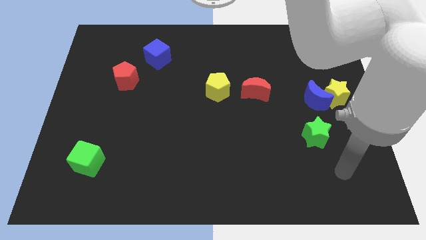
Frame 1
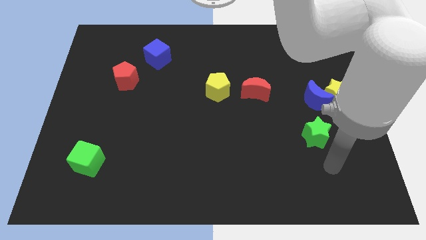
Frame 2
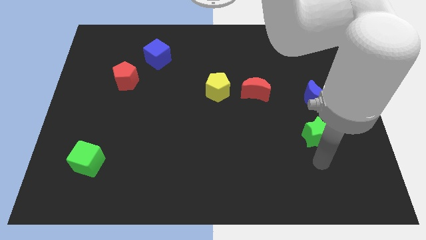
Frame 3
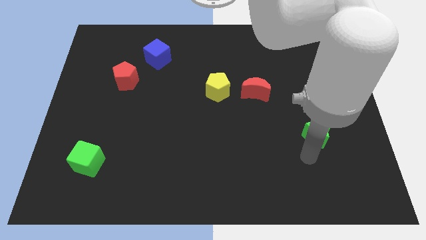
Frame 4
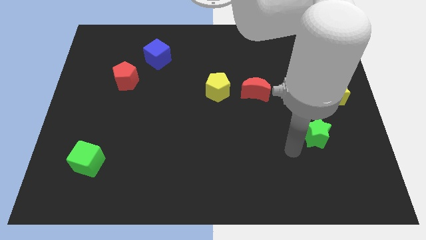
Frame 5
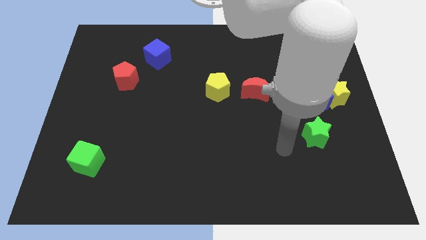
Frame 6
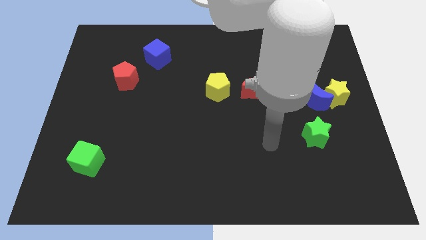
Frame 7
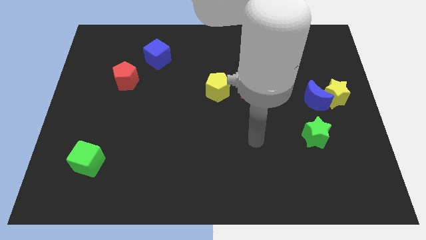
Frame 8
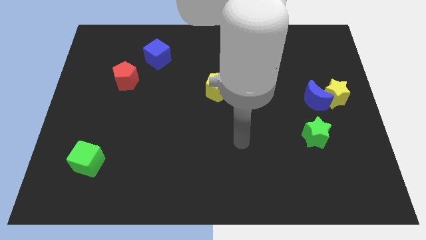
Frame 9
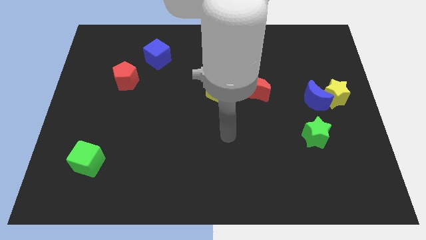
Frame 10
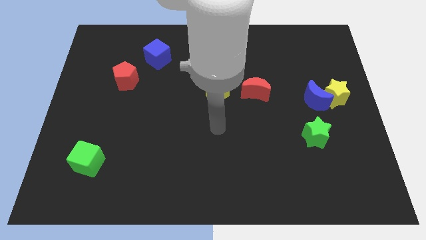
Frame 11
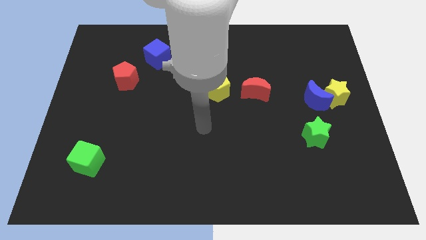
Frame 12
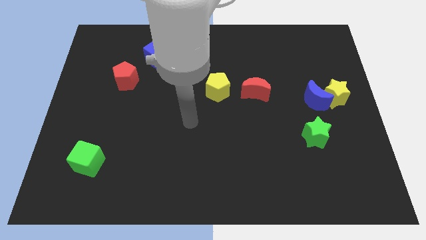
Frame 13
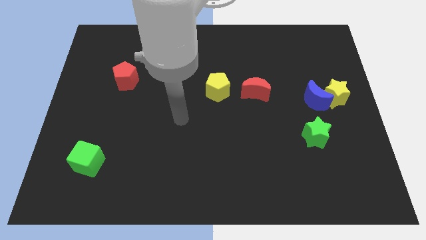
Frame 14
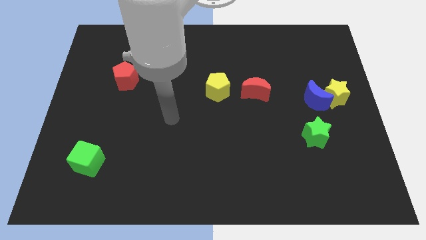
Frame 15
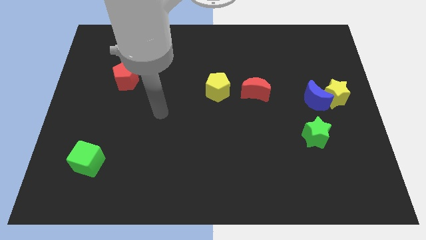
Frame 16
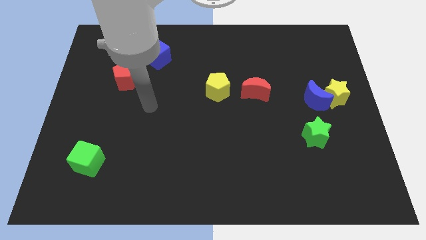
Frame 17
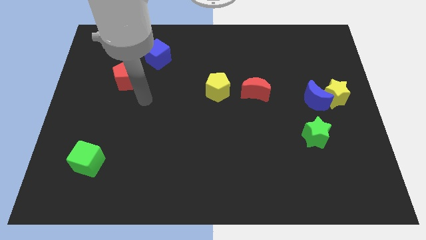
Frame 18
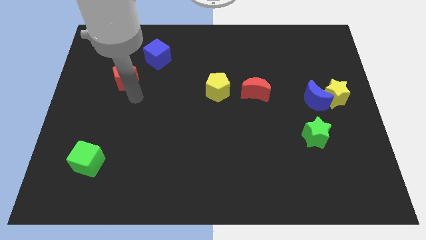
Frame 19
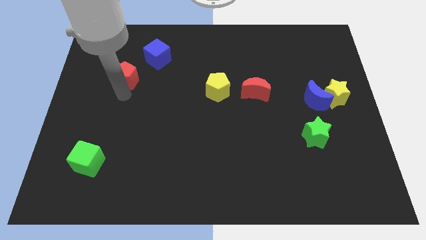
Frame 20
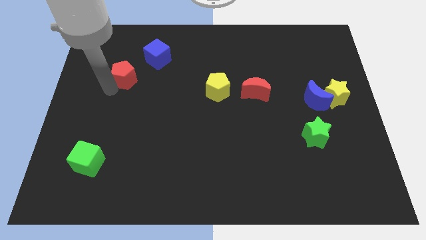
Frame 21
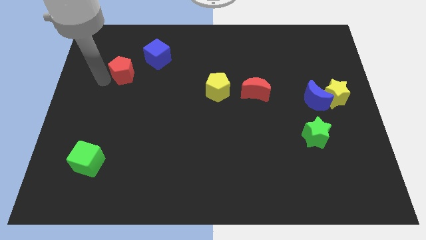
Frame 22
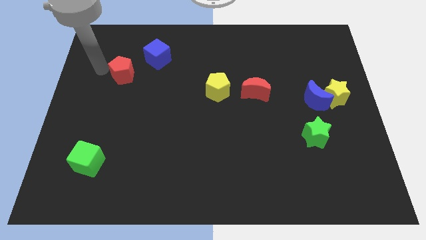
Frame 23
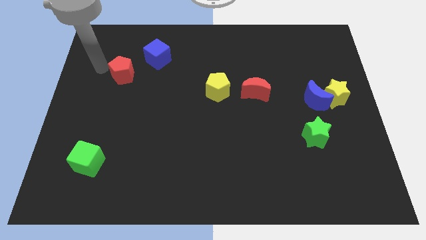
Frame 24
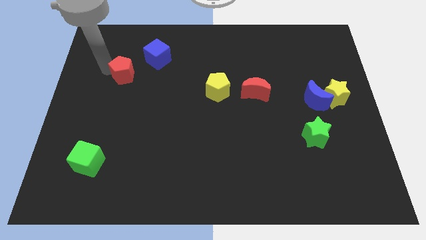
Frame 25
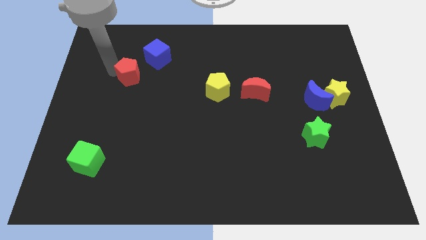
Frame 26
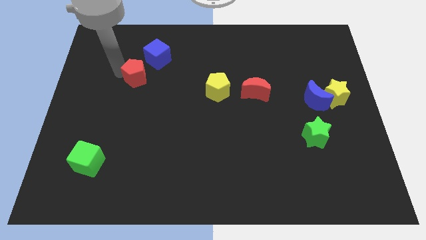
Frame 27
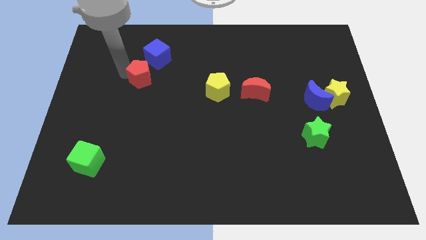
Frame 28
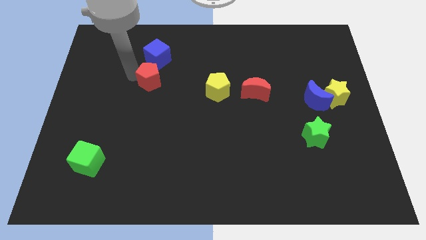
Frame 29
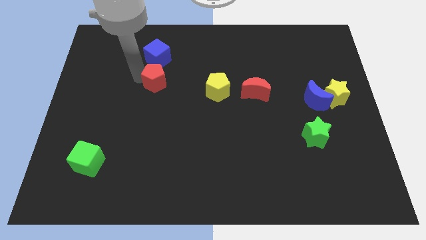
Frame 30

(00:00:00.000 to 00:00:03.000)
push the red pentagon to the right somewhat

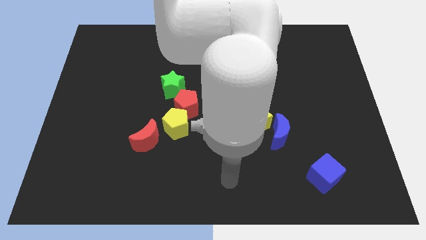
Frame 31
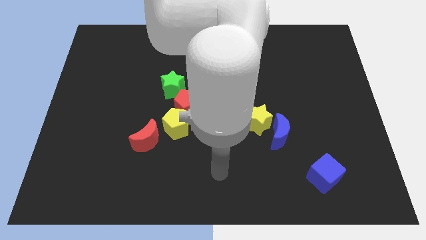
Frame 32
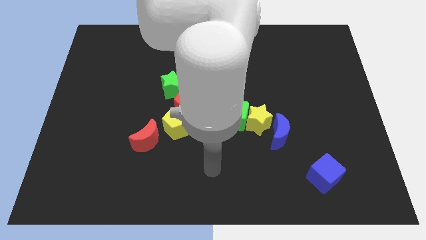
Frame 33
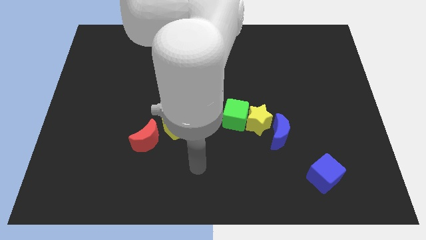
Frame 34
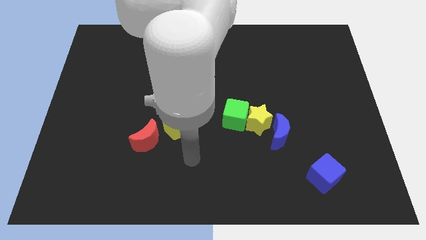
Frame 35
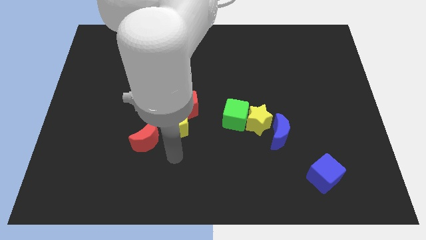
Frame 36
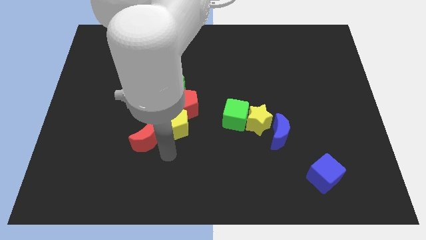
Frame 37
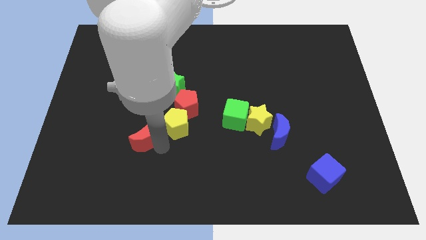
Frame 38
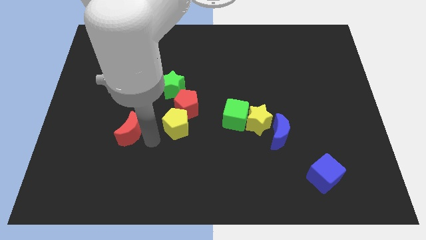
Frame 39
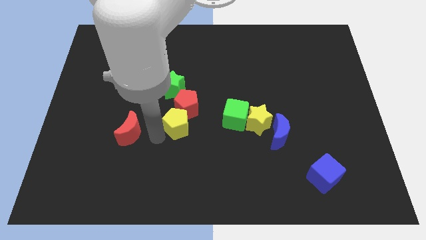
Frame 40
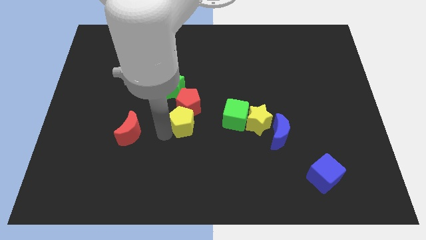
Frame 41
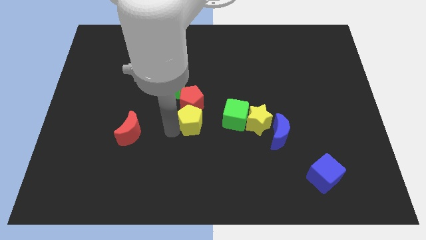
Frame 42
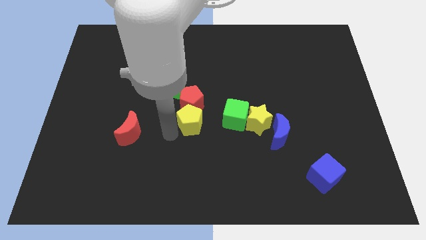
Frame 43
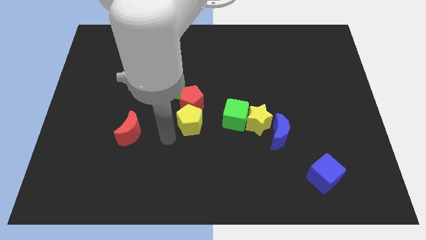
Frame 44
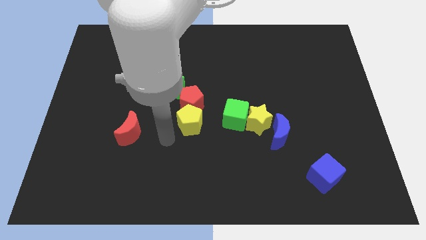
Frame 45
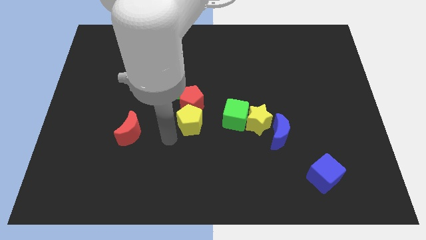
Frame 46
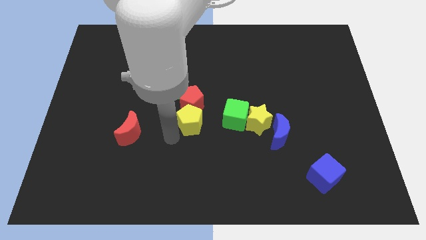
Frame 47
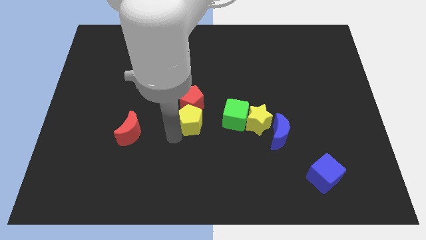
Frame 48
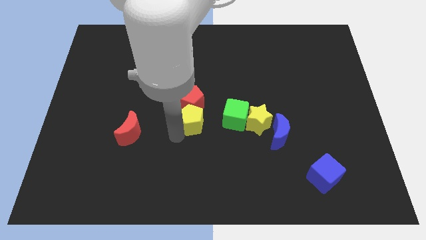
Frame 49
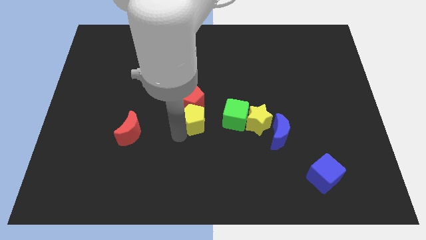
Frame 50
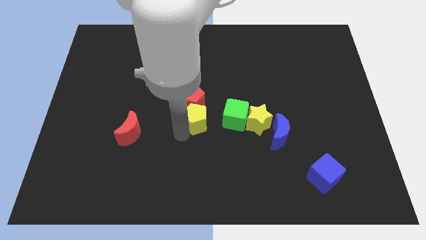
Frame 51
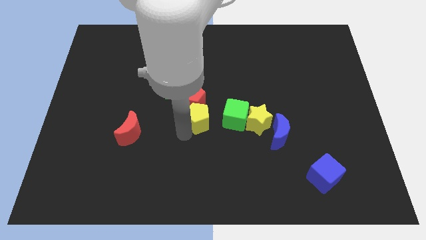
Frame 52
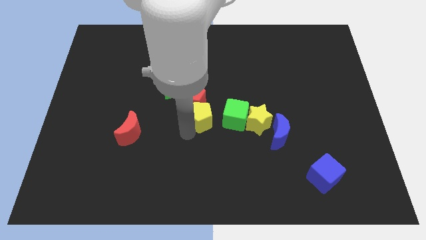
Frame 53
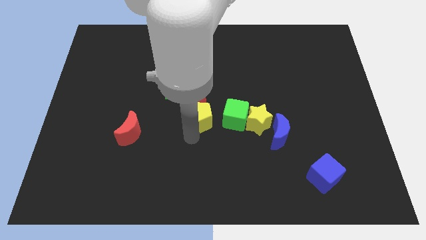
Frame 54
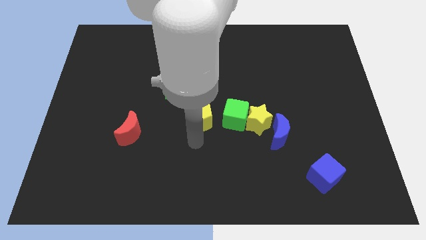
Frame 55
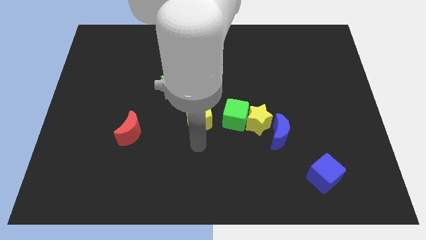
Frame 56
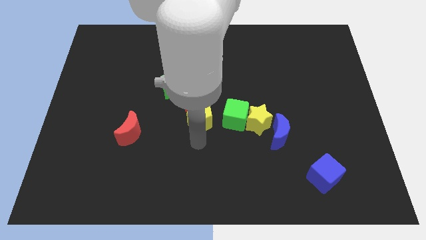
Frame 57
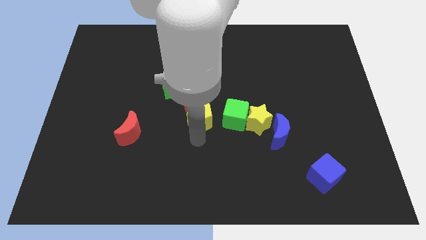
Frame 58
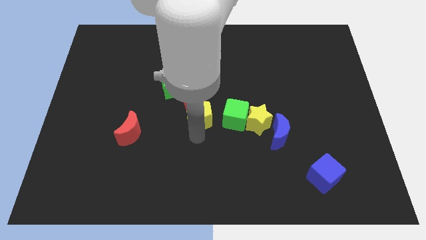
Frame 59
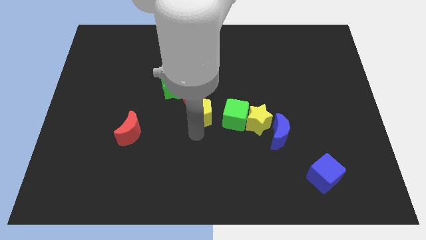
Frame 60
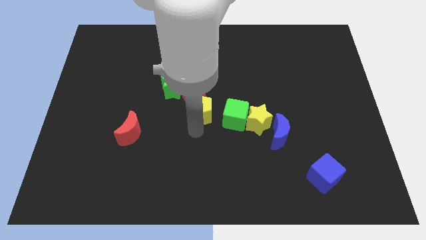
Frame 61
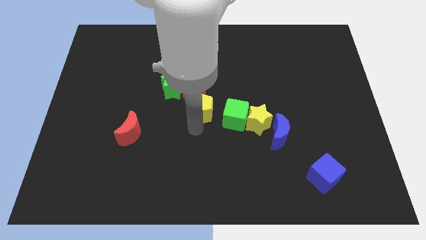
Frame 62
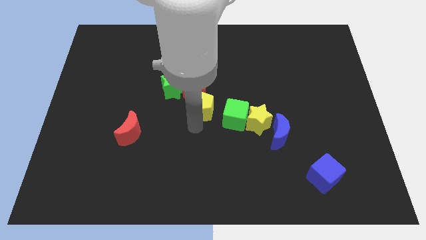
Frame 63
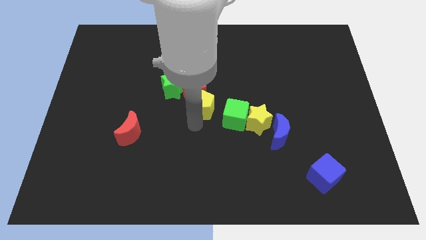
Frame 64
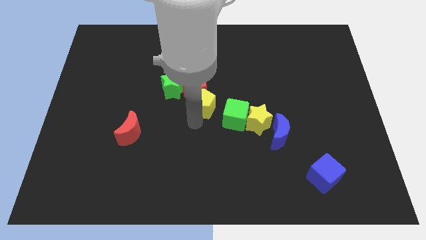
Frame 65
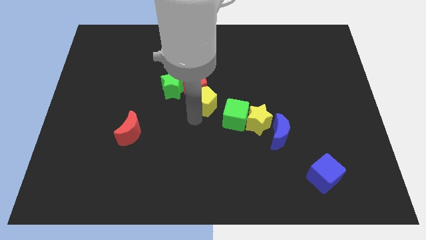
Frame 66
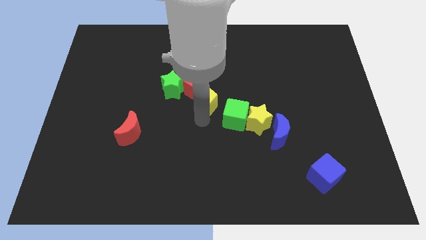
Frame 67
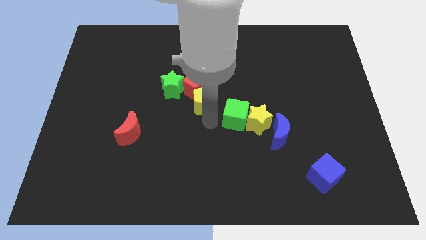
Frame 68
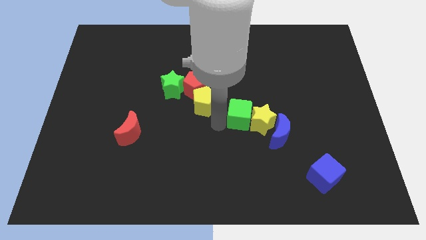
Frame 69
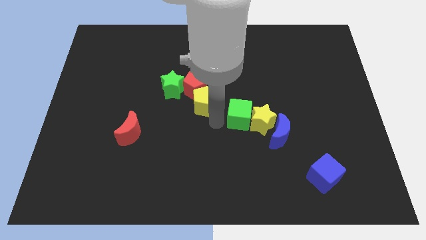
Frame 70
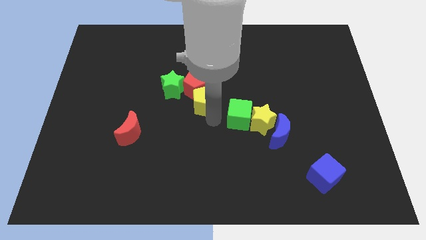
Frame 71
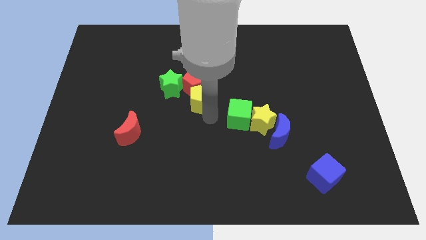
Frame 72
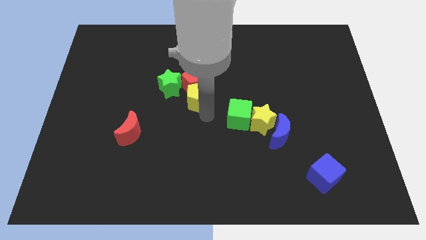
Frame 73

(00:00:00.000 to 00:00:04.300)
slightly slide the yellow pentagon upwards

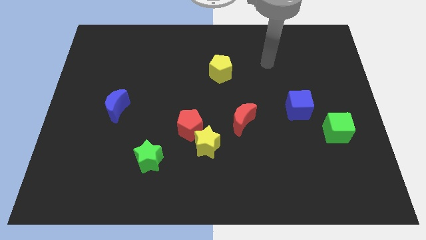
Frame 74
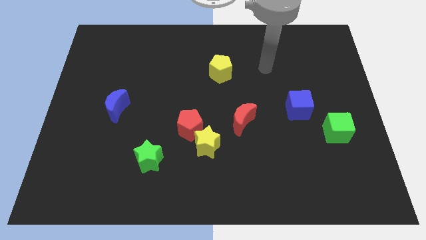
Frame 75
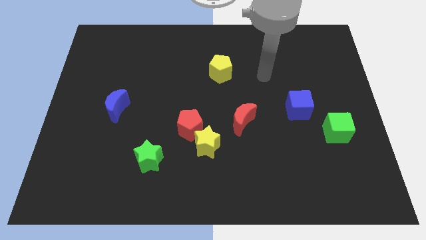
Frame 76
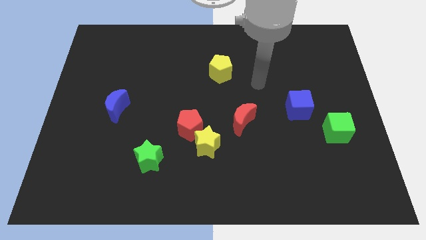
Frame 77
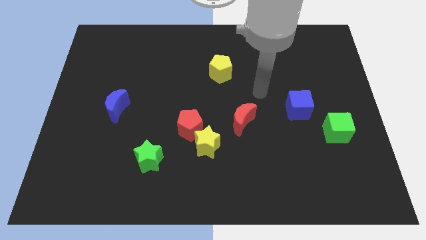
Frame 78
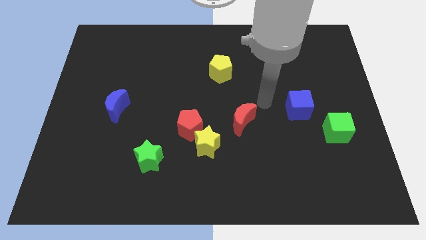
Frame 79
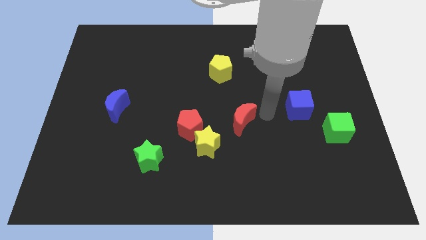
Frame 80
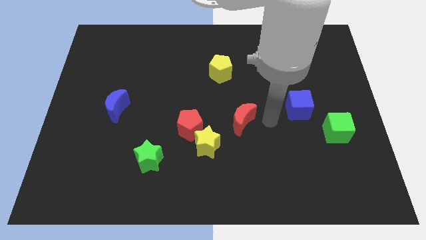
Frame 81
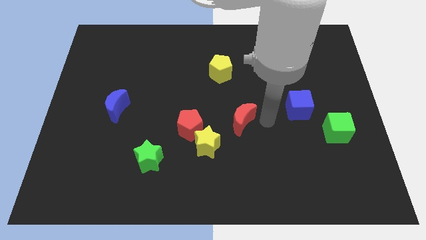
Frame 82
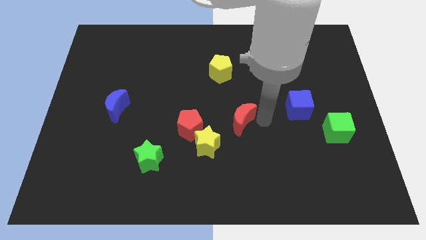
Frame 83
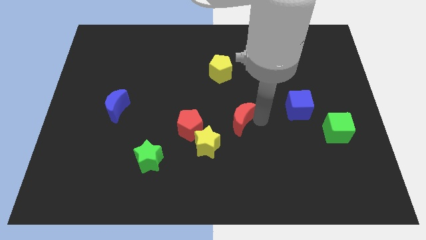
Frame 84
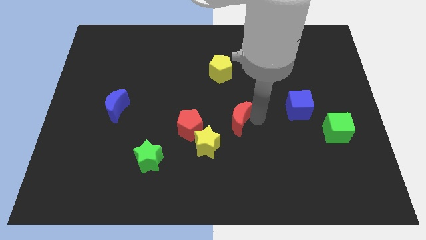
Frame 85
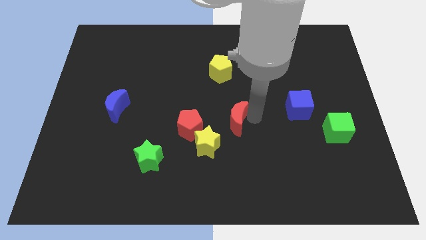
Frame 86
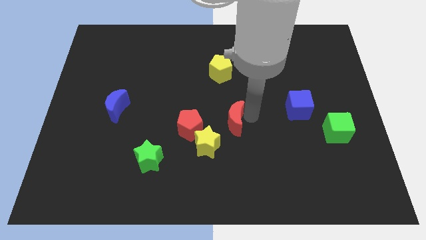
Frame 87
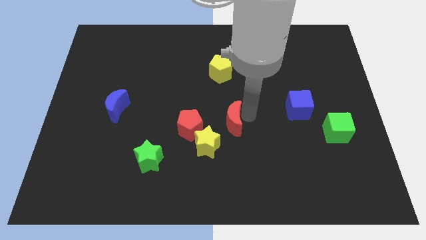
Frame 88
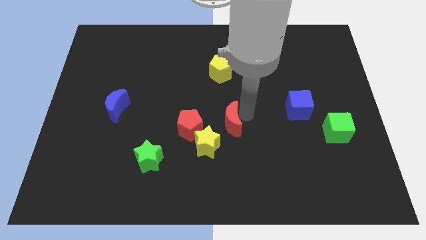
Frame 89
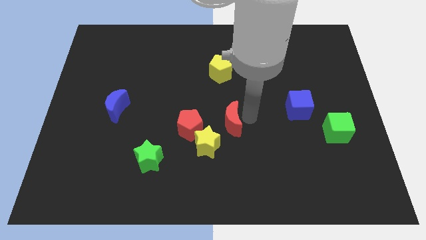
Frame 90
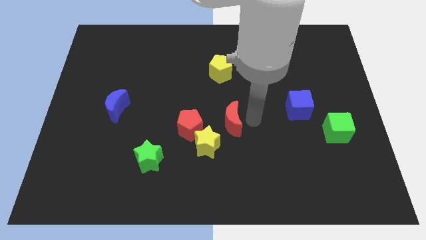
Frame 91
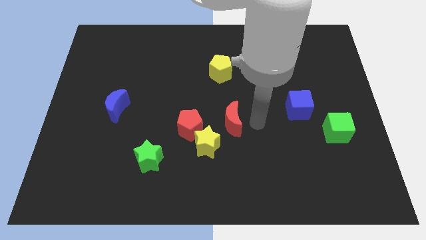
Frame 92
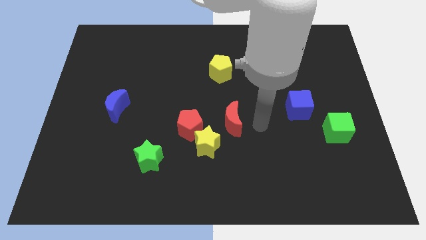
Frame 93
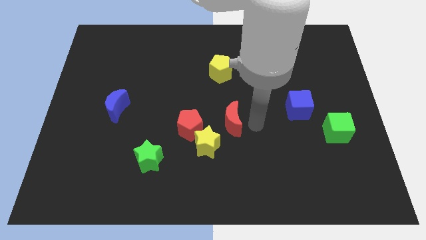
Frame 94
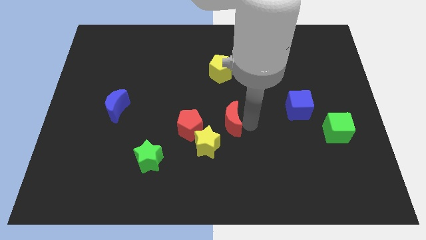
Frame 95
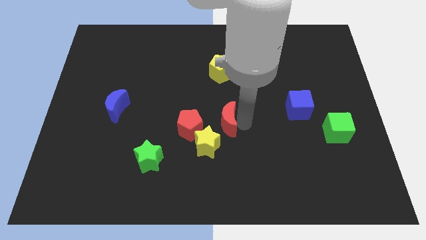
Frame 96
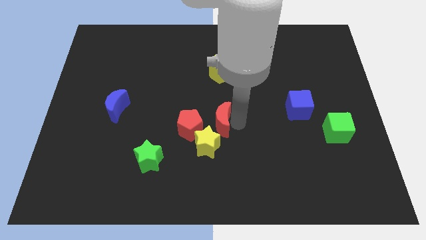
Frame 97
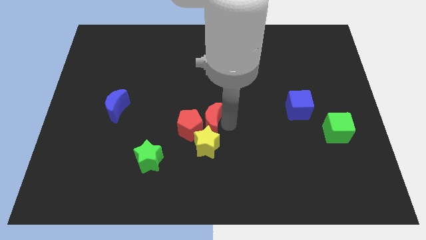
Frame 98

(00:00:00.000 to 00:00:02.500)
slightly slide the red moon left
